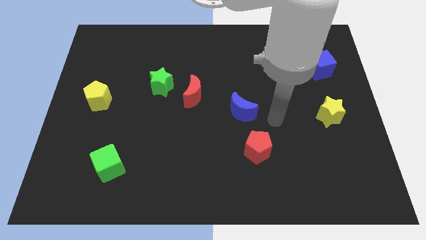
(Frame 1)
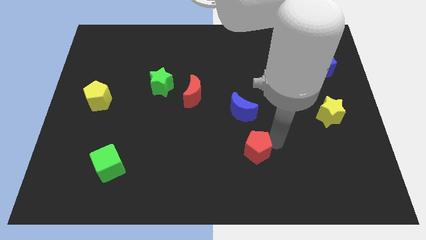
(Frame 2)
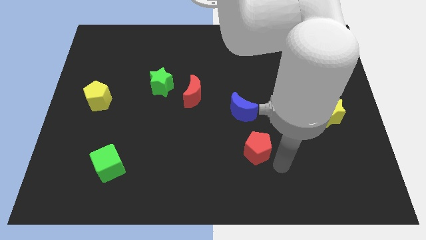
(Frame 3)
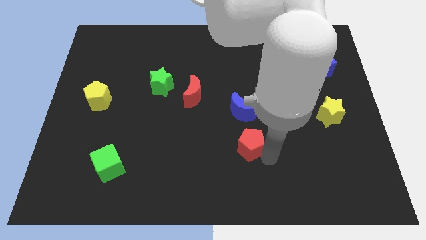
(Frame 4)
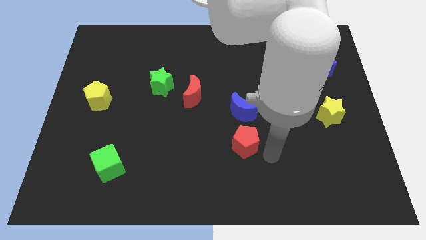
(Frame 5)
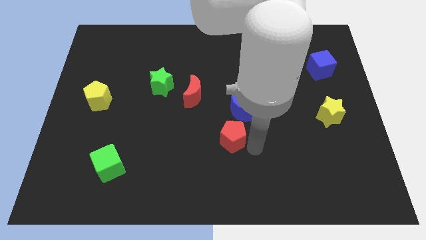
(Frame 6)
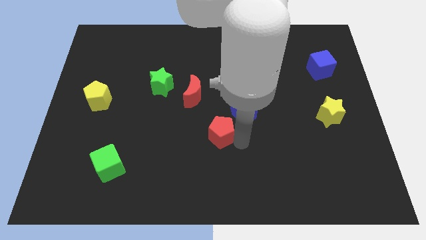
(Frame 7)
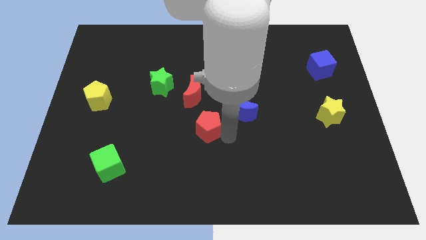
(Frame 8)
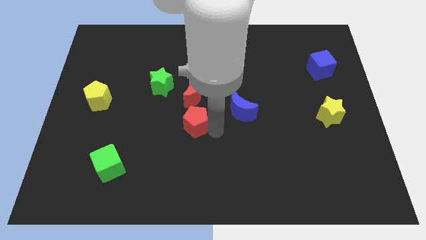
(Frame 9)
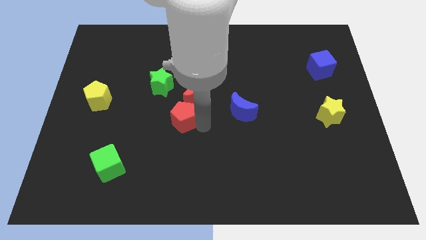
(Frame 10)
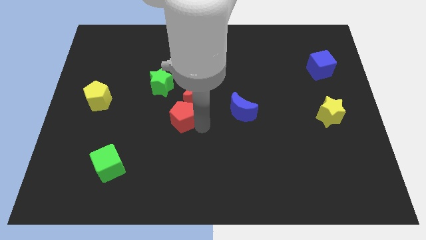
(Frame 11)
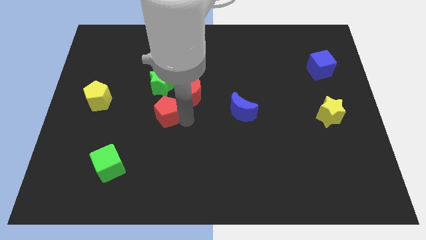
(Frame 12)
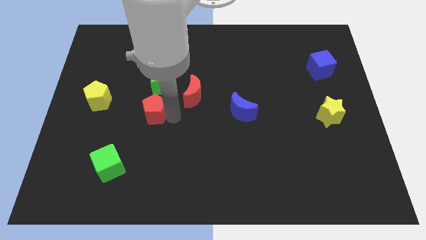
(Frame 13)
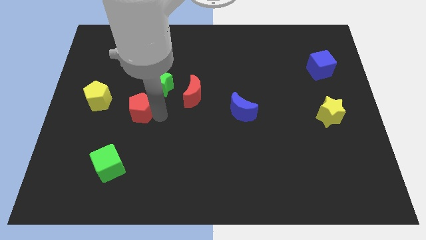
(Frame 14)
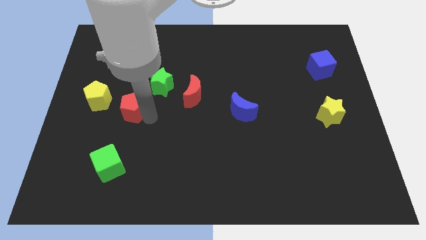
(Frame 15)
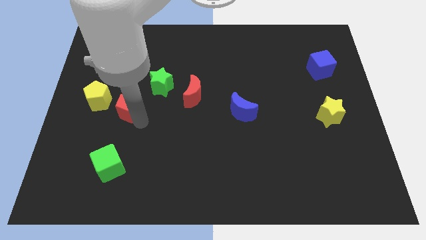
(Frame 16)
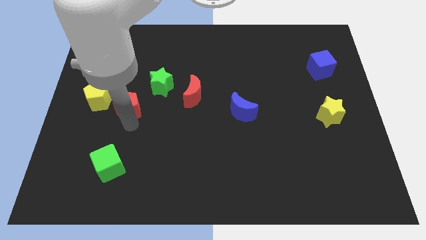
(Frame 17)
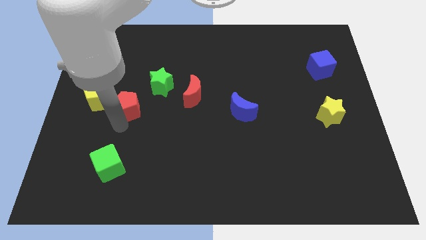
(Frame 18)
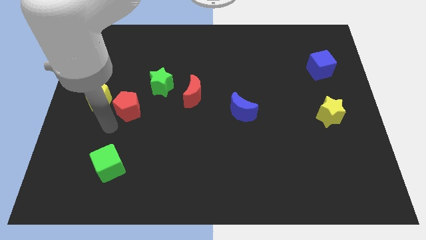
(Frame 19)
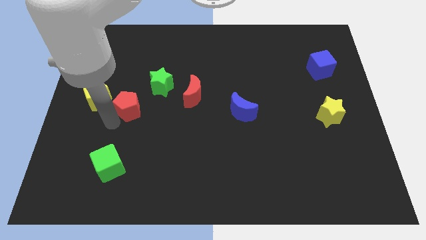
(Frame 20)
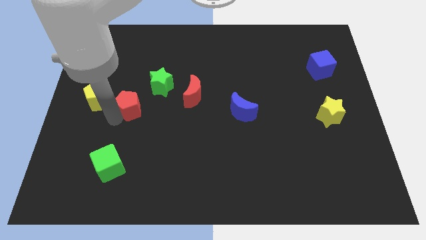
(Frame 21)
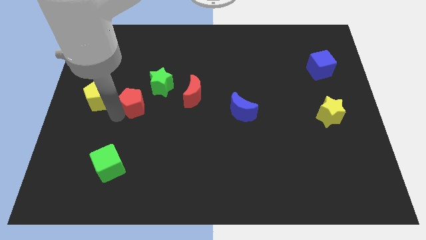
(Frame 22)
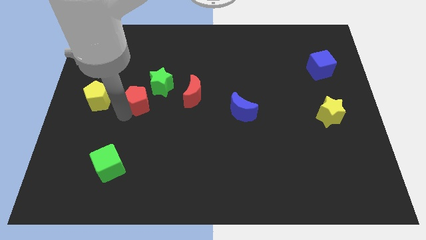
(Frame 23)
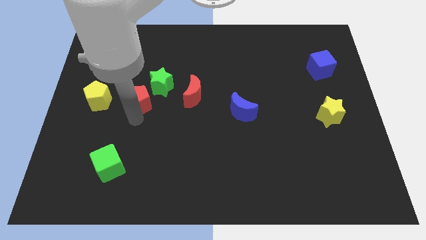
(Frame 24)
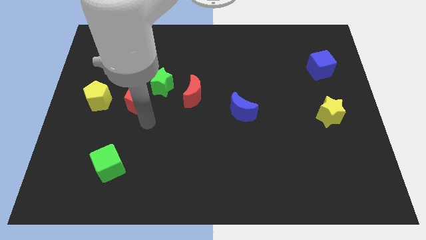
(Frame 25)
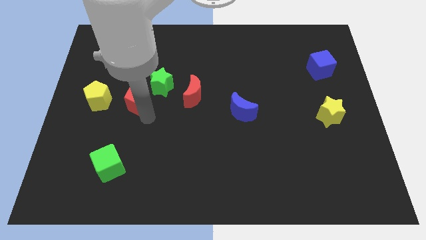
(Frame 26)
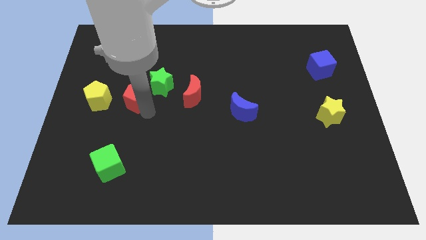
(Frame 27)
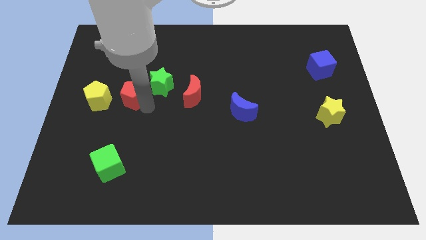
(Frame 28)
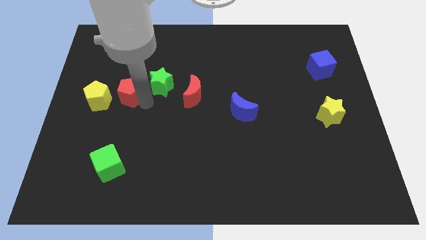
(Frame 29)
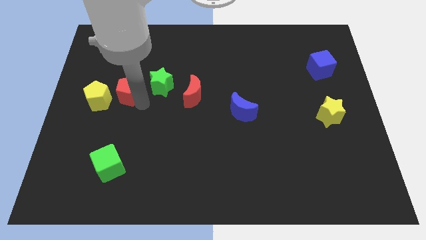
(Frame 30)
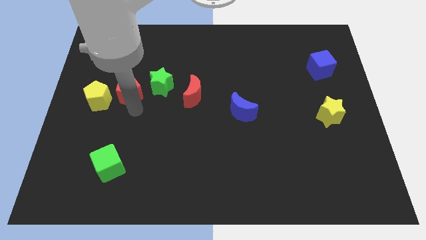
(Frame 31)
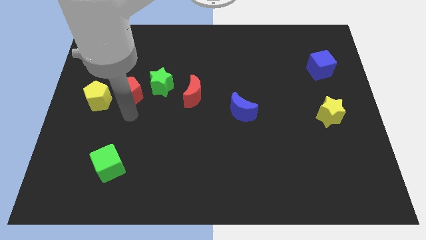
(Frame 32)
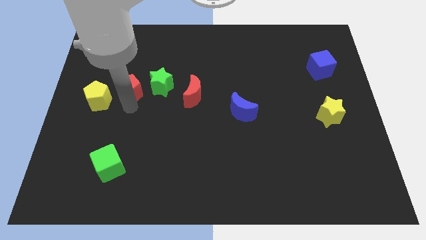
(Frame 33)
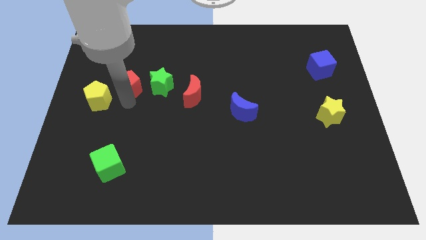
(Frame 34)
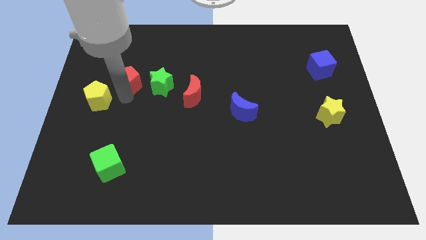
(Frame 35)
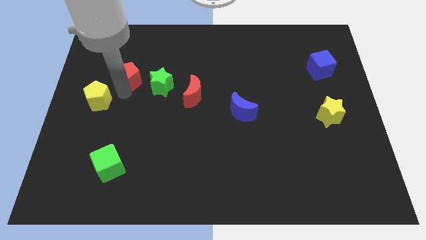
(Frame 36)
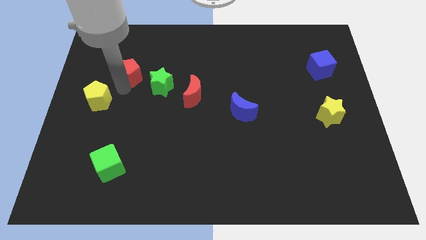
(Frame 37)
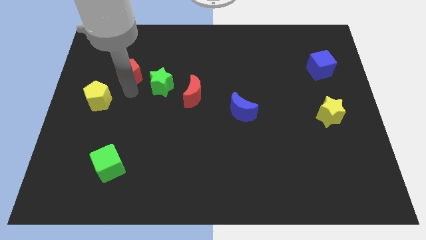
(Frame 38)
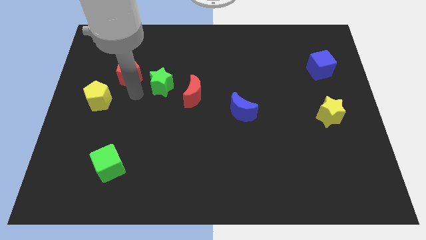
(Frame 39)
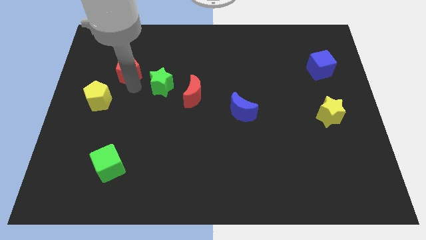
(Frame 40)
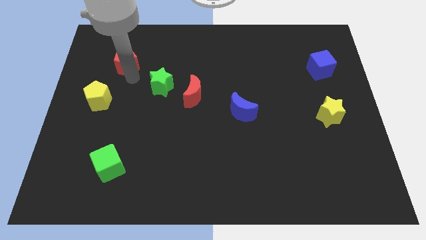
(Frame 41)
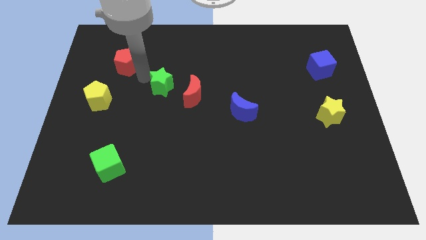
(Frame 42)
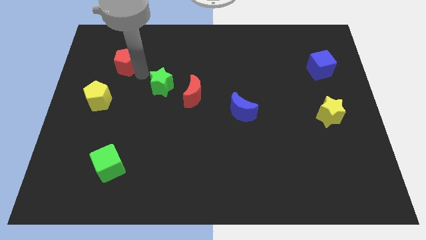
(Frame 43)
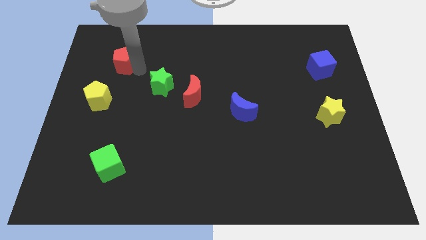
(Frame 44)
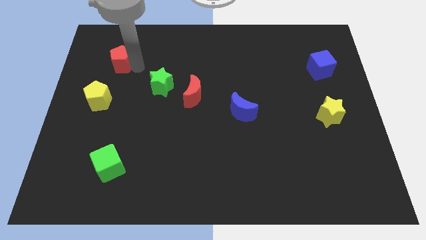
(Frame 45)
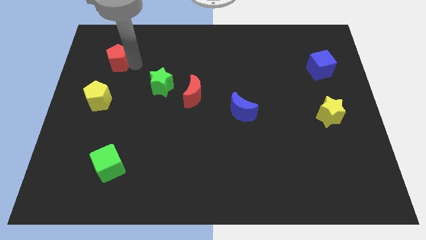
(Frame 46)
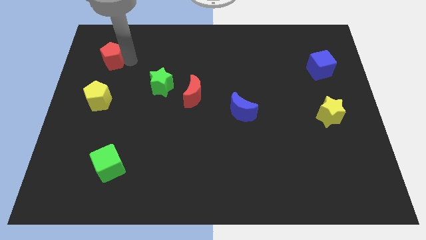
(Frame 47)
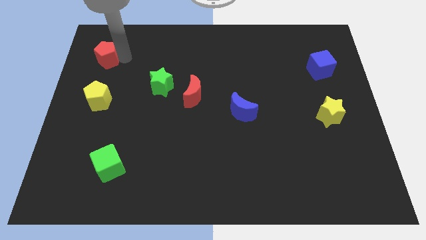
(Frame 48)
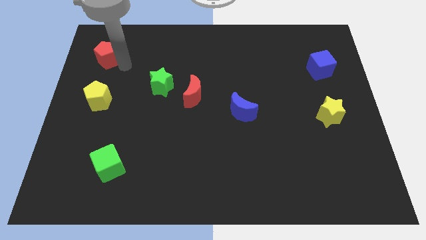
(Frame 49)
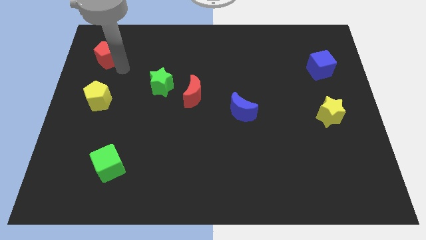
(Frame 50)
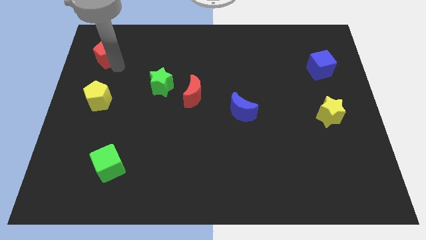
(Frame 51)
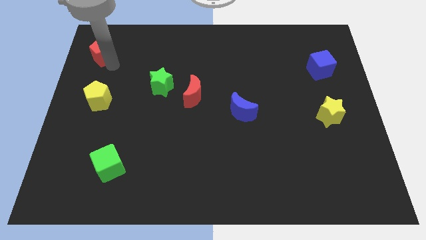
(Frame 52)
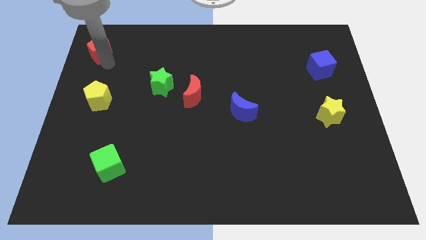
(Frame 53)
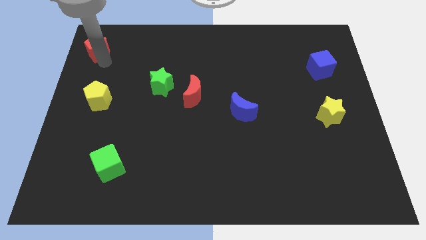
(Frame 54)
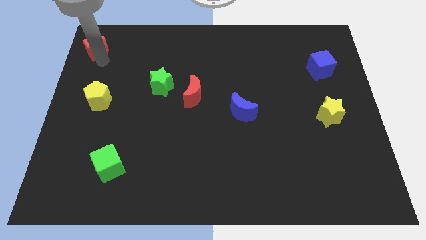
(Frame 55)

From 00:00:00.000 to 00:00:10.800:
move the red pentagon to the top left corner

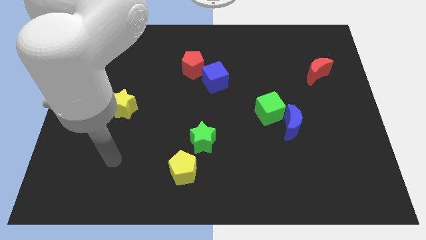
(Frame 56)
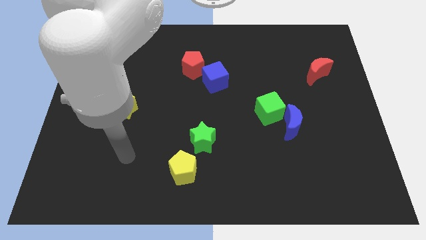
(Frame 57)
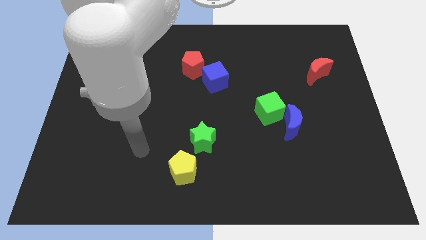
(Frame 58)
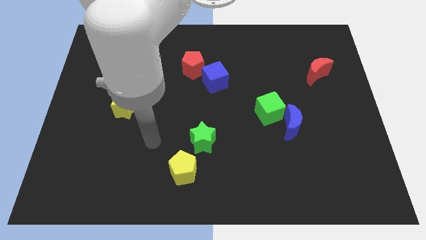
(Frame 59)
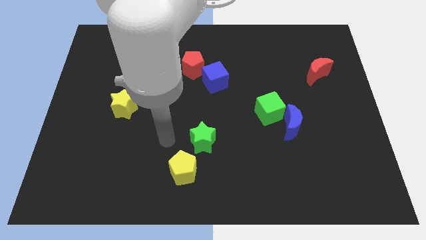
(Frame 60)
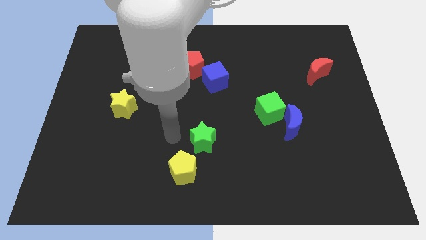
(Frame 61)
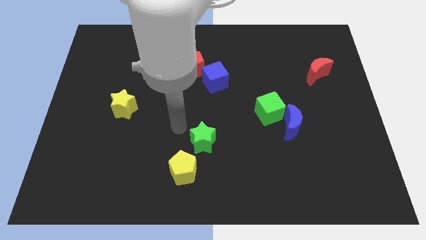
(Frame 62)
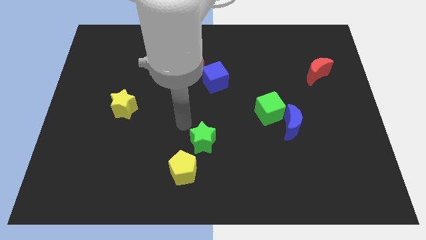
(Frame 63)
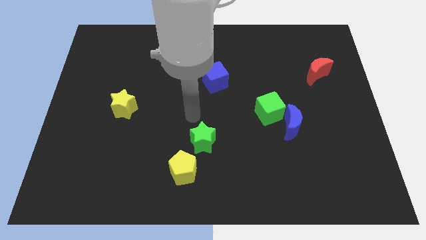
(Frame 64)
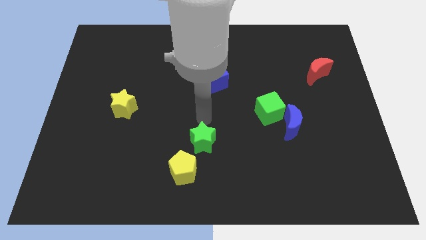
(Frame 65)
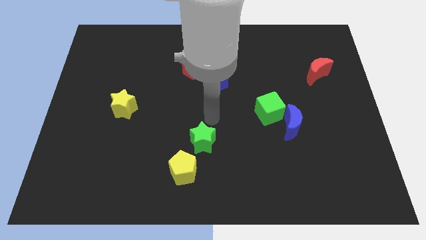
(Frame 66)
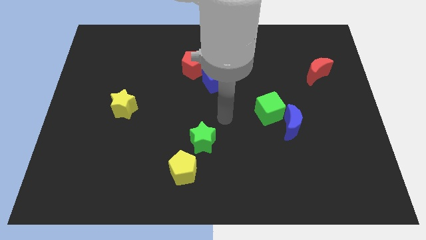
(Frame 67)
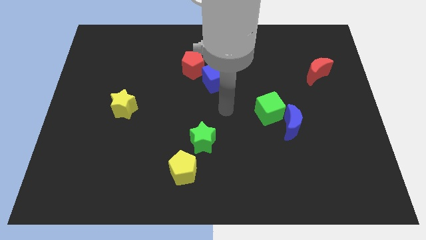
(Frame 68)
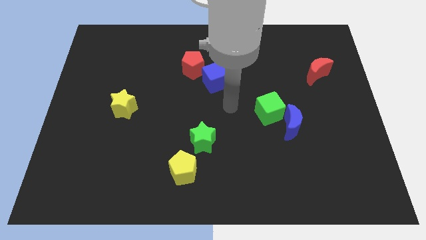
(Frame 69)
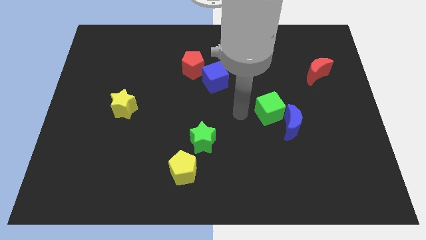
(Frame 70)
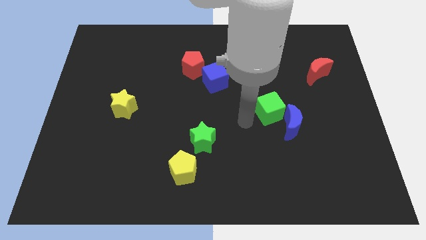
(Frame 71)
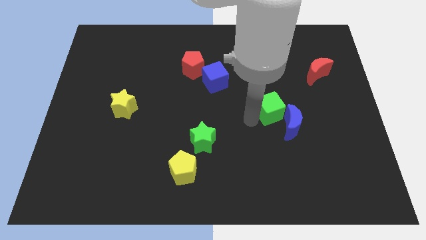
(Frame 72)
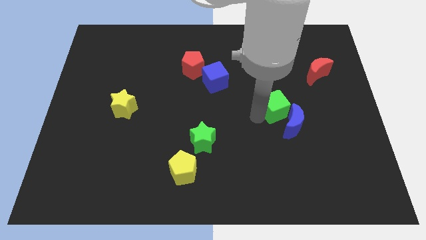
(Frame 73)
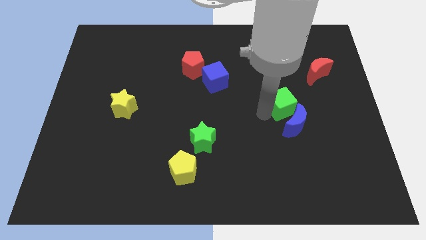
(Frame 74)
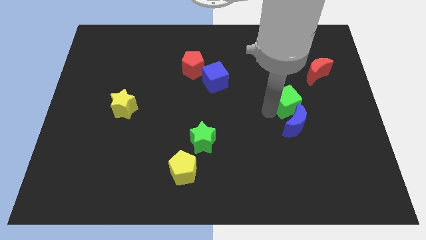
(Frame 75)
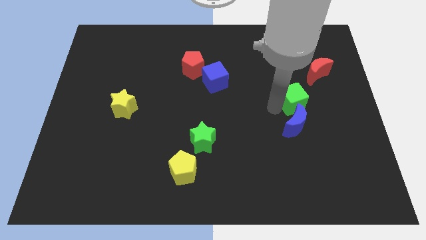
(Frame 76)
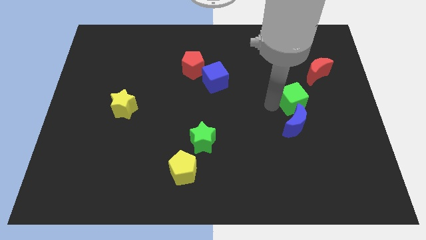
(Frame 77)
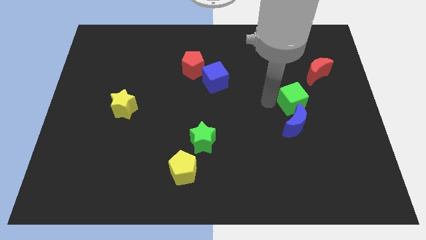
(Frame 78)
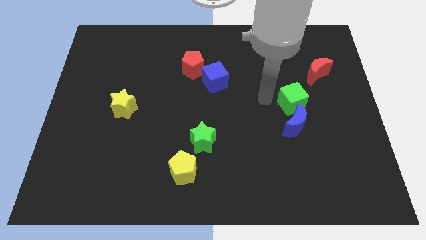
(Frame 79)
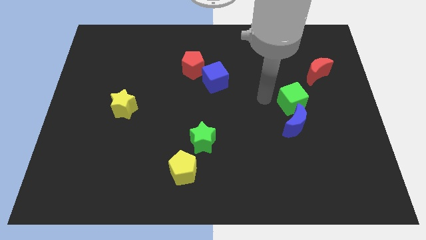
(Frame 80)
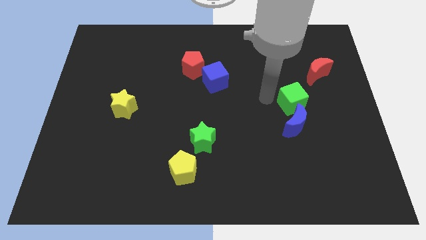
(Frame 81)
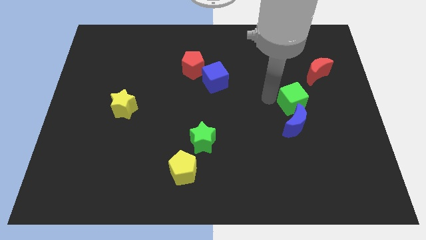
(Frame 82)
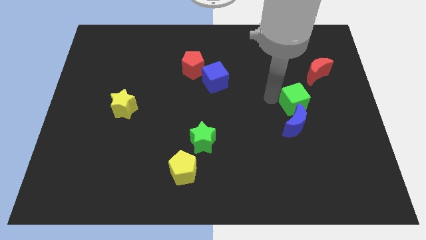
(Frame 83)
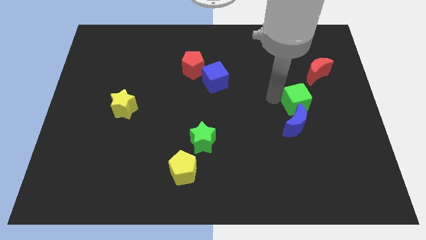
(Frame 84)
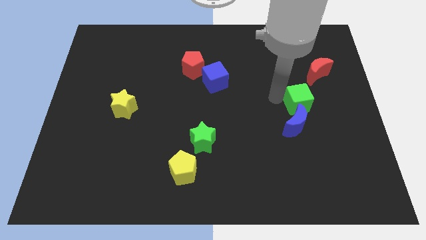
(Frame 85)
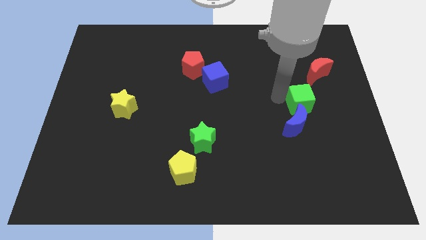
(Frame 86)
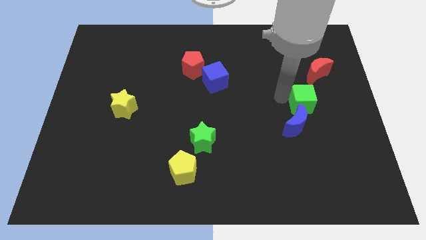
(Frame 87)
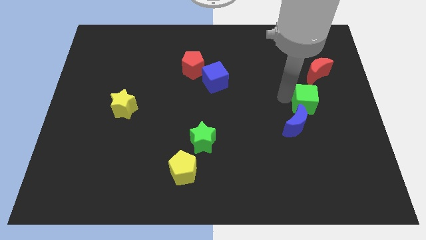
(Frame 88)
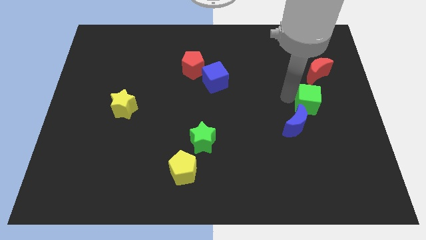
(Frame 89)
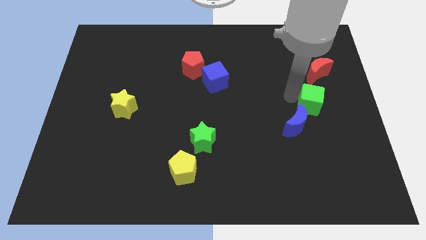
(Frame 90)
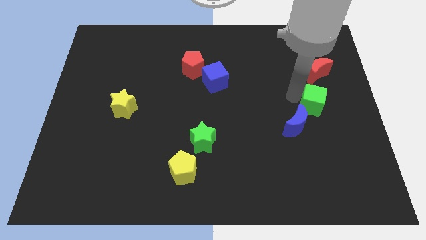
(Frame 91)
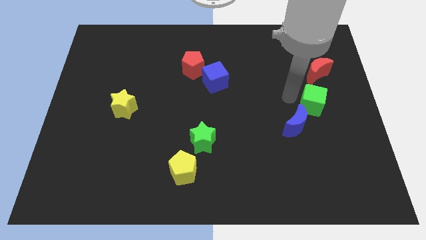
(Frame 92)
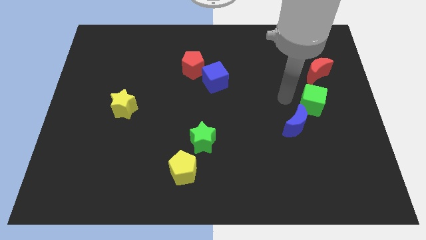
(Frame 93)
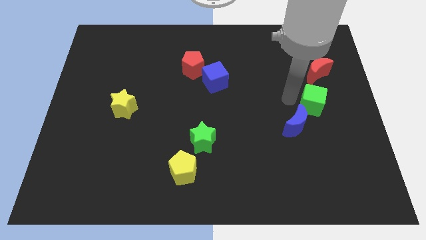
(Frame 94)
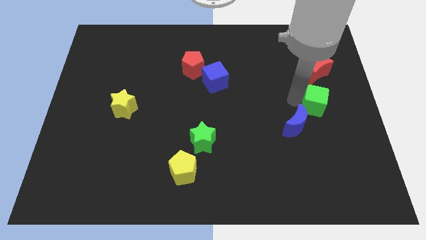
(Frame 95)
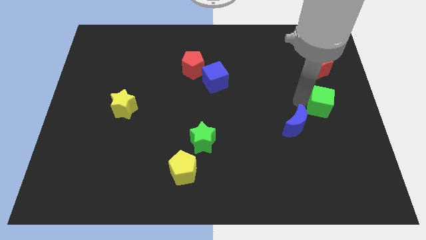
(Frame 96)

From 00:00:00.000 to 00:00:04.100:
put the green cube to the right side
